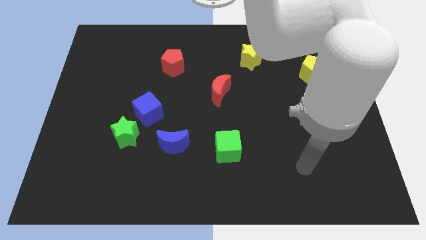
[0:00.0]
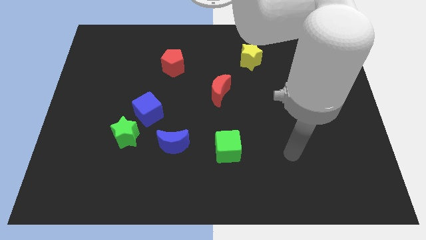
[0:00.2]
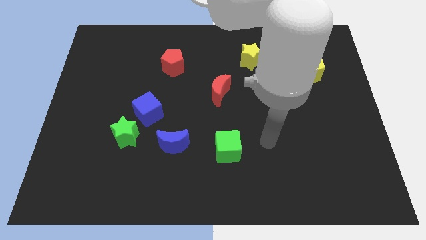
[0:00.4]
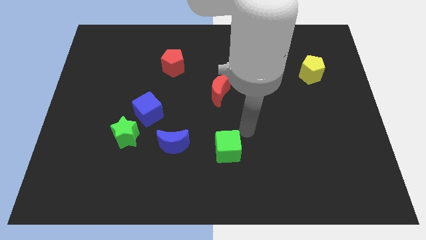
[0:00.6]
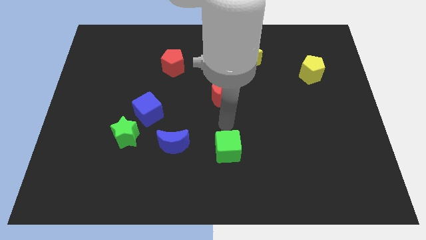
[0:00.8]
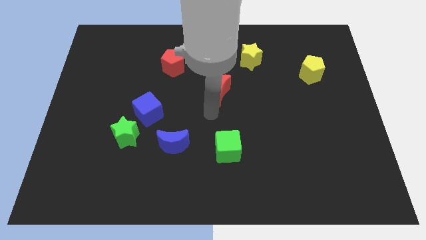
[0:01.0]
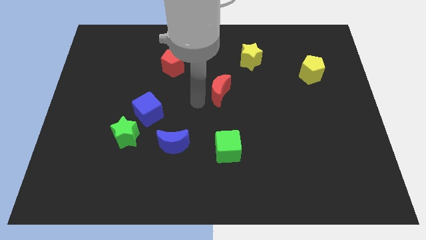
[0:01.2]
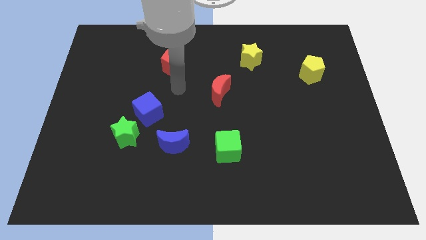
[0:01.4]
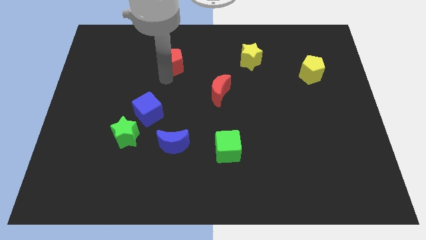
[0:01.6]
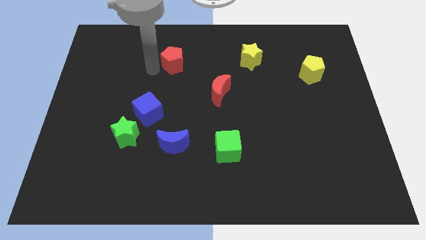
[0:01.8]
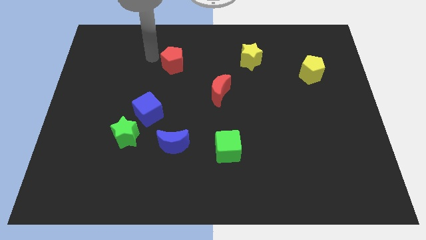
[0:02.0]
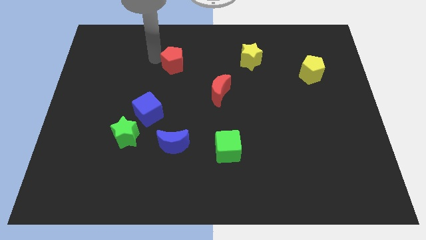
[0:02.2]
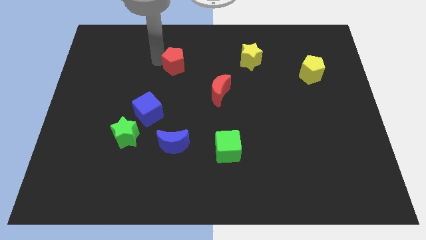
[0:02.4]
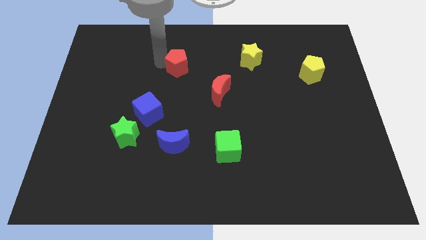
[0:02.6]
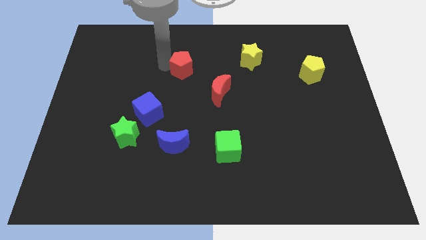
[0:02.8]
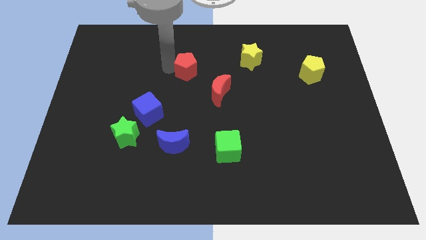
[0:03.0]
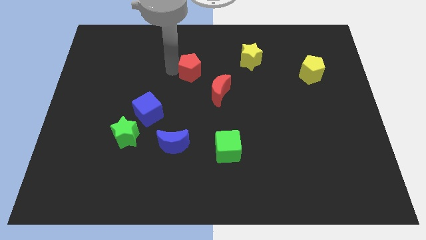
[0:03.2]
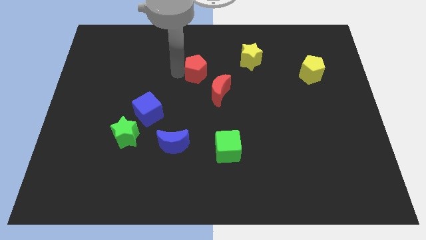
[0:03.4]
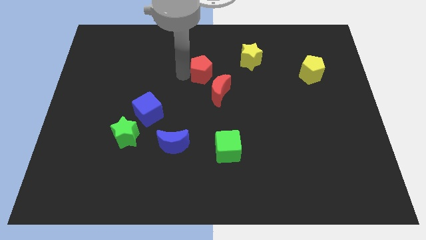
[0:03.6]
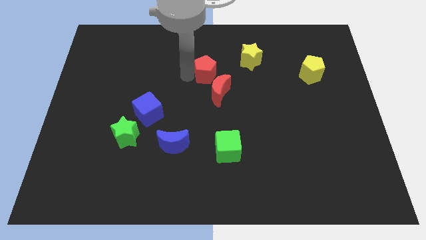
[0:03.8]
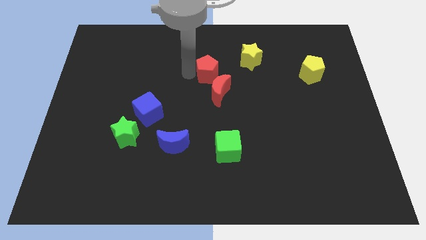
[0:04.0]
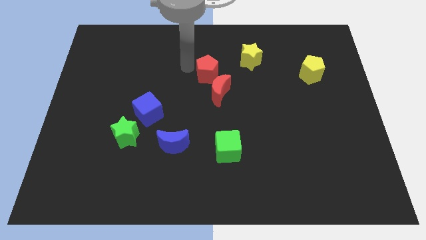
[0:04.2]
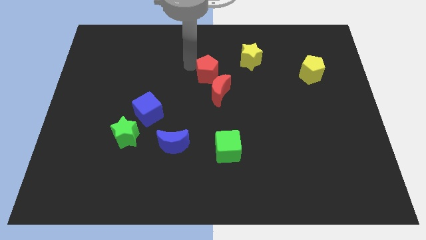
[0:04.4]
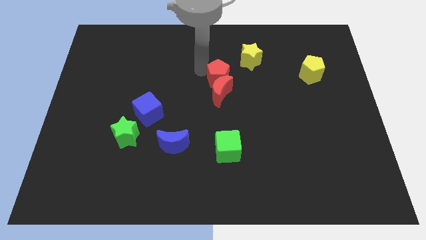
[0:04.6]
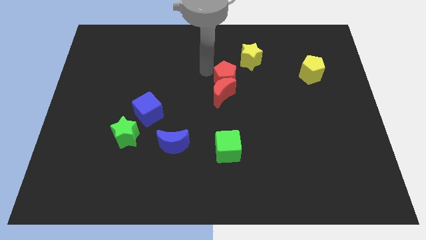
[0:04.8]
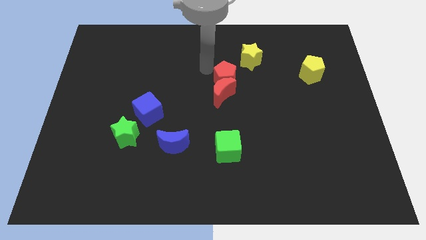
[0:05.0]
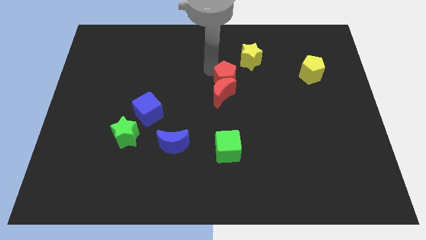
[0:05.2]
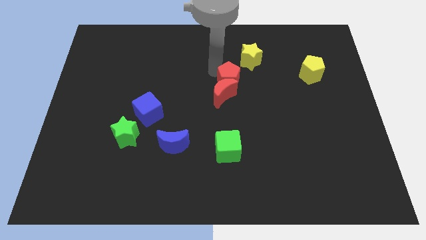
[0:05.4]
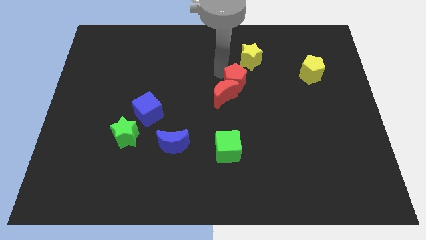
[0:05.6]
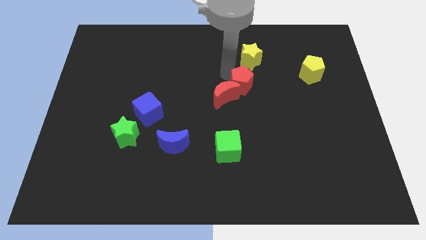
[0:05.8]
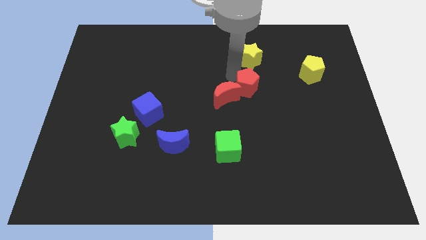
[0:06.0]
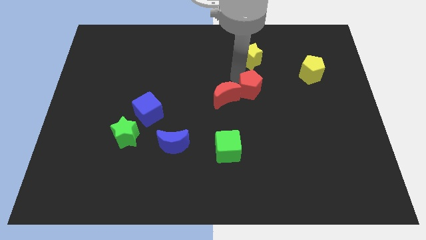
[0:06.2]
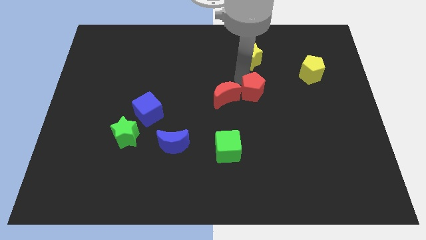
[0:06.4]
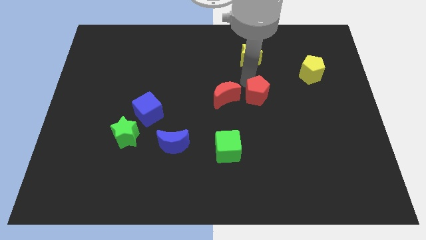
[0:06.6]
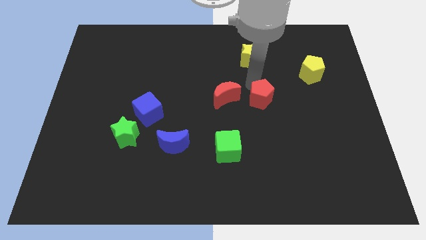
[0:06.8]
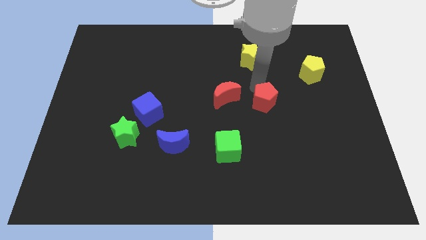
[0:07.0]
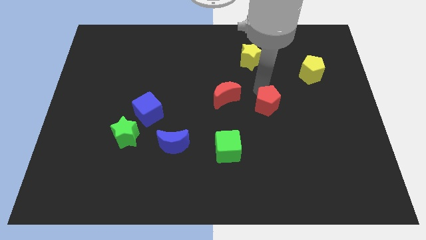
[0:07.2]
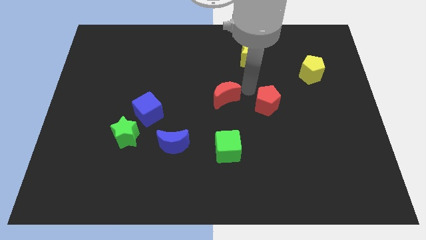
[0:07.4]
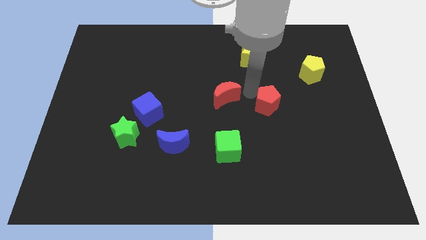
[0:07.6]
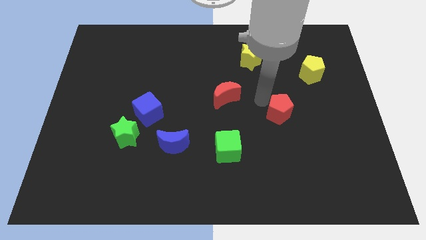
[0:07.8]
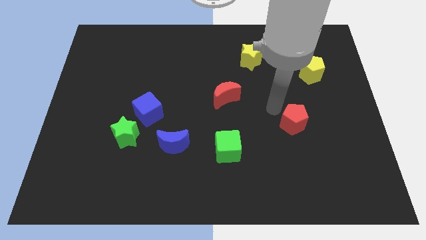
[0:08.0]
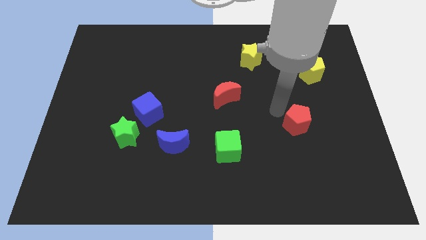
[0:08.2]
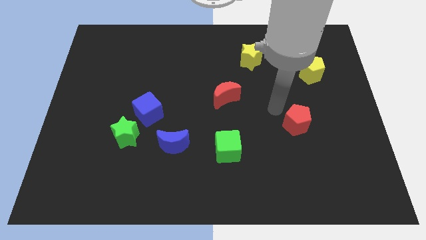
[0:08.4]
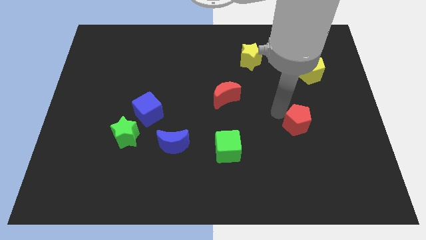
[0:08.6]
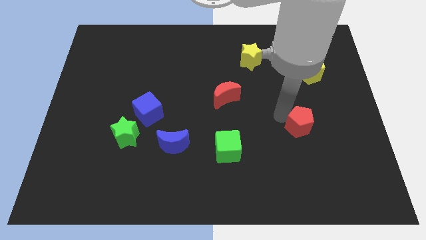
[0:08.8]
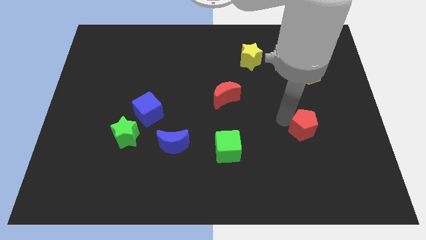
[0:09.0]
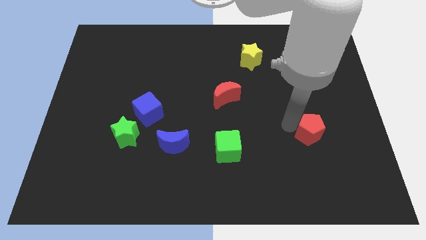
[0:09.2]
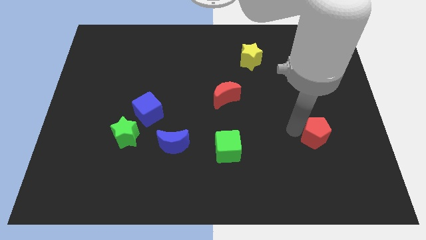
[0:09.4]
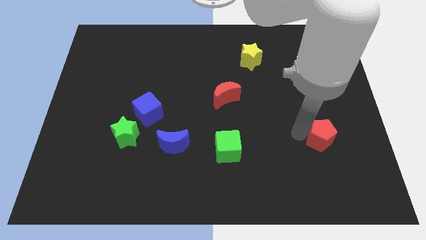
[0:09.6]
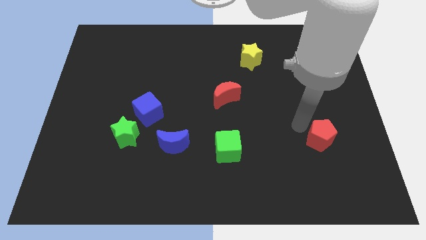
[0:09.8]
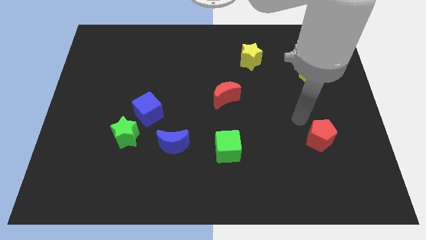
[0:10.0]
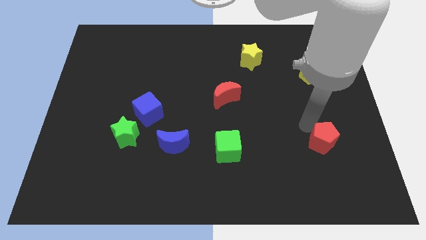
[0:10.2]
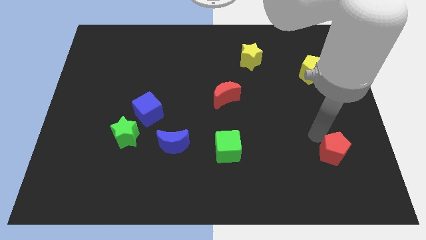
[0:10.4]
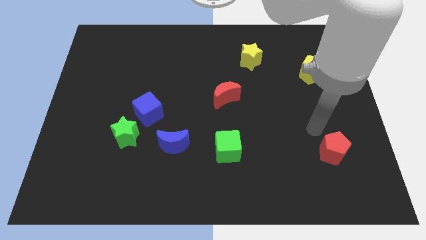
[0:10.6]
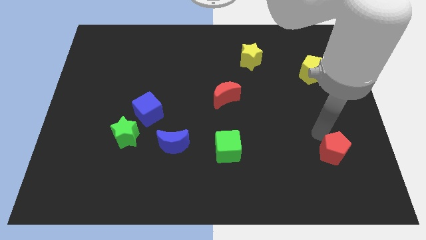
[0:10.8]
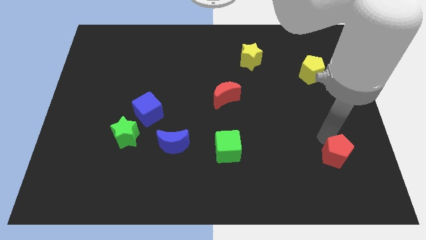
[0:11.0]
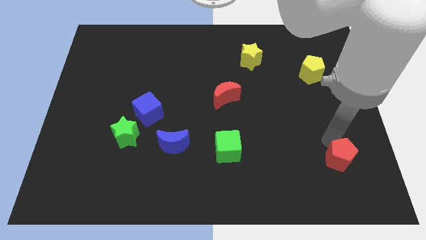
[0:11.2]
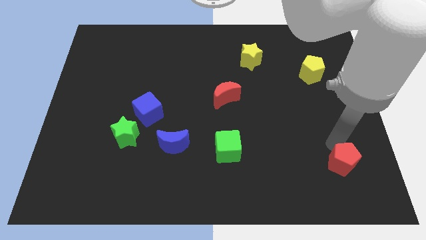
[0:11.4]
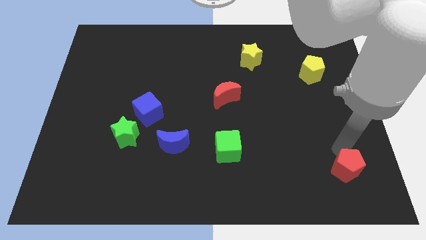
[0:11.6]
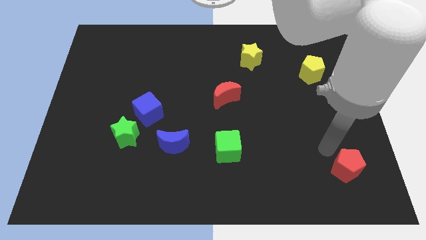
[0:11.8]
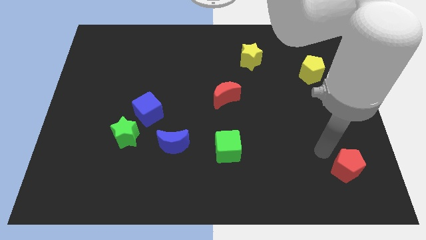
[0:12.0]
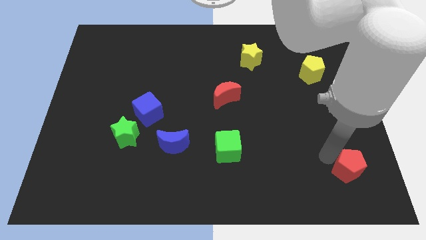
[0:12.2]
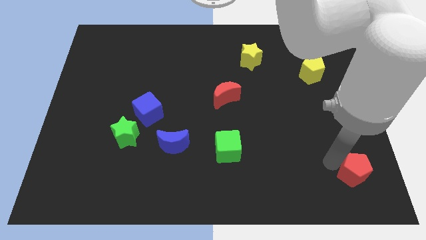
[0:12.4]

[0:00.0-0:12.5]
put the red pentagon to the bottom right corner
